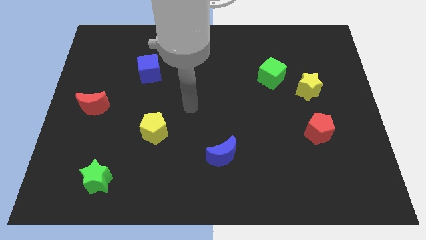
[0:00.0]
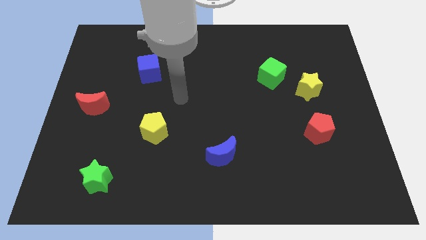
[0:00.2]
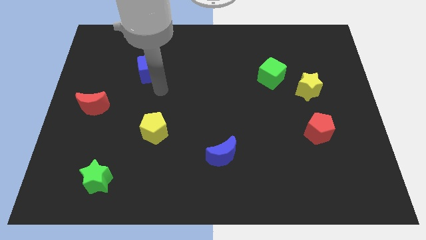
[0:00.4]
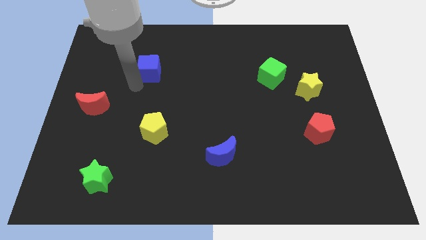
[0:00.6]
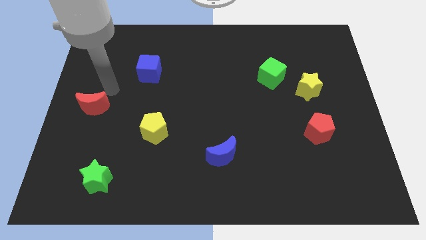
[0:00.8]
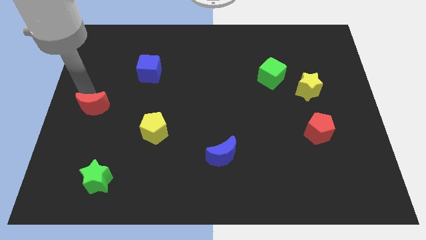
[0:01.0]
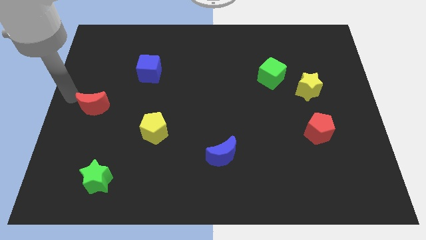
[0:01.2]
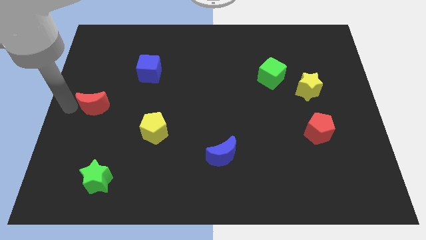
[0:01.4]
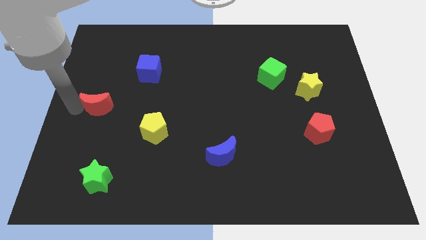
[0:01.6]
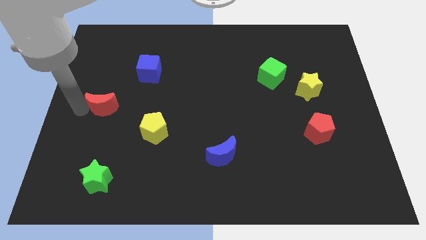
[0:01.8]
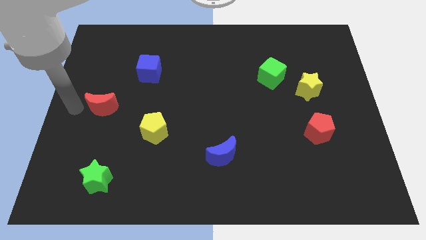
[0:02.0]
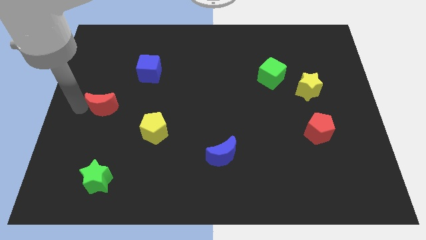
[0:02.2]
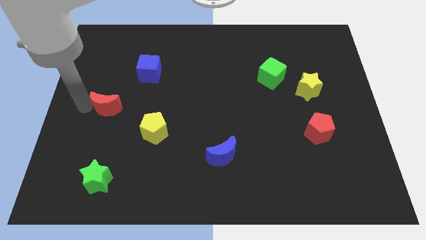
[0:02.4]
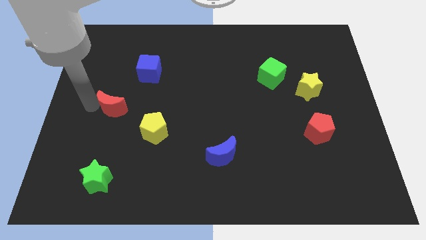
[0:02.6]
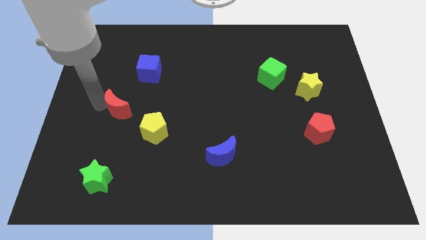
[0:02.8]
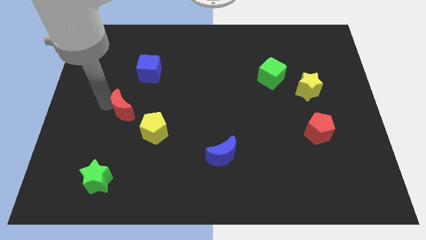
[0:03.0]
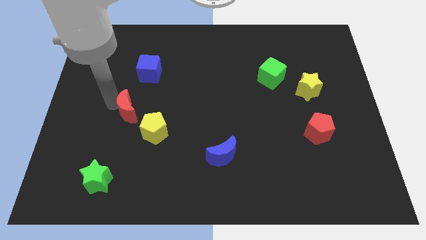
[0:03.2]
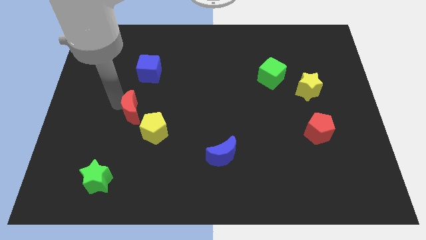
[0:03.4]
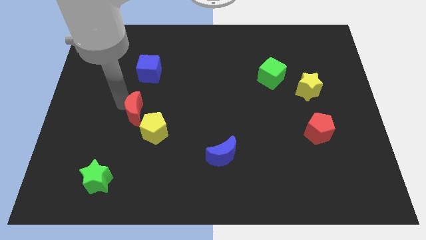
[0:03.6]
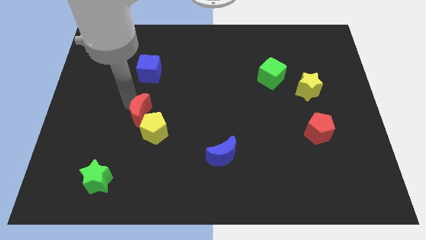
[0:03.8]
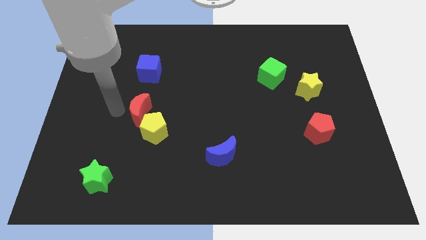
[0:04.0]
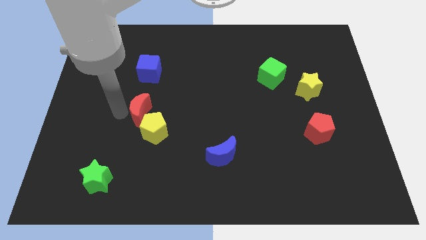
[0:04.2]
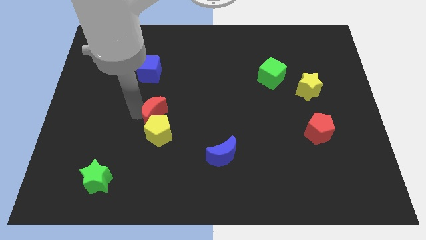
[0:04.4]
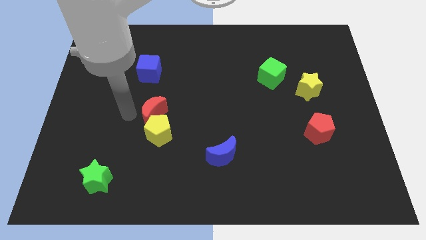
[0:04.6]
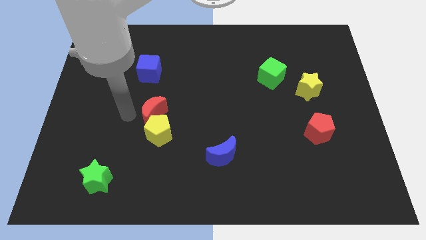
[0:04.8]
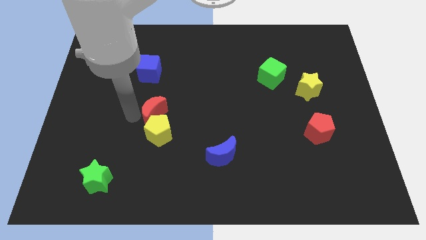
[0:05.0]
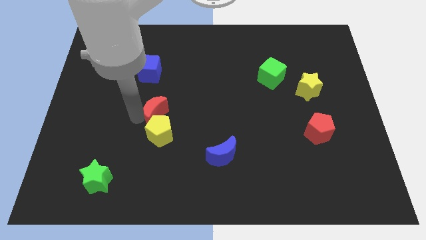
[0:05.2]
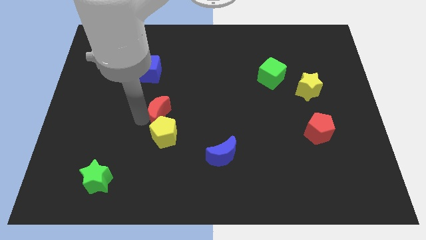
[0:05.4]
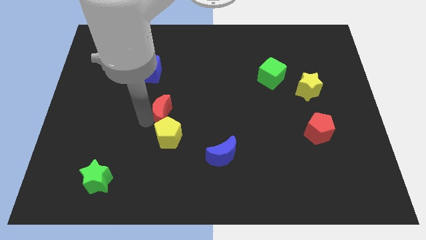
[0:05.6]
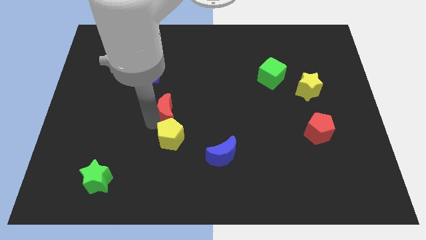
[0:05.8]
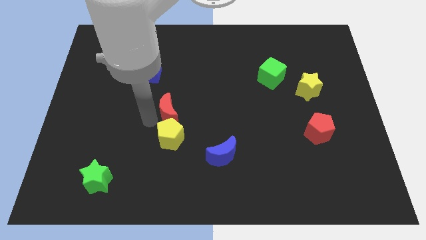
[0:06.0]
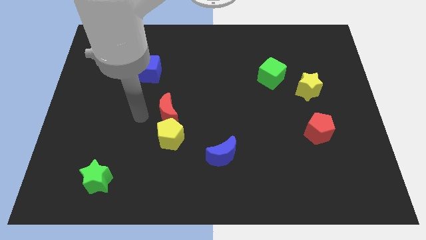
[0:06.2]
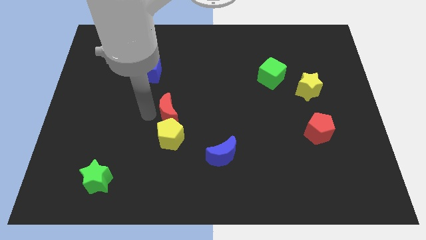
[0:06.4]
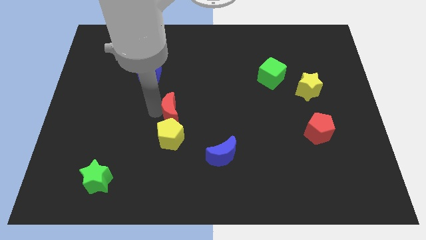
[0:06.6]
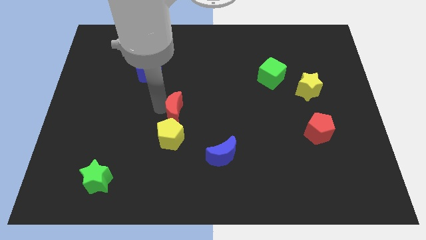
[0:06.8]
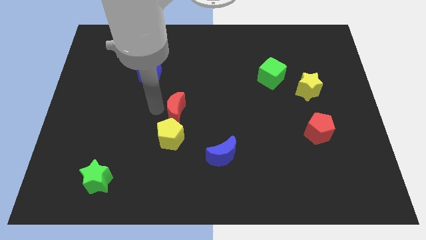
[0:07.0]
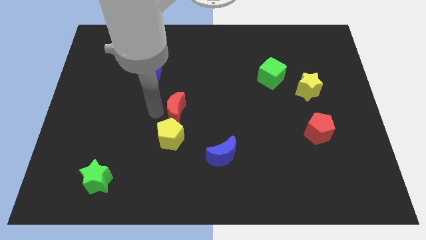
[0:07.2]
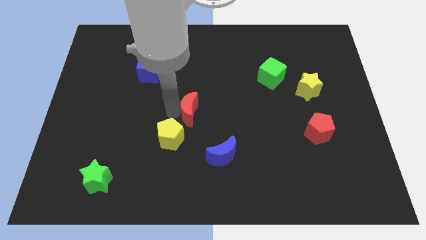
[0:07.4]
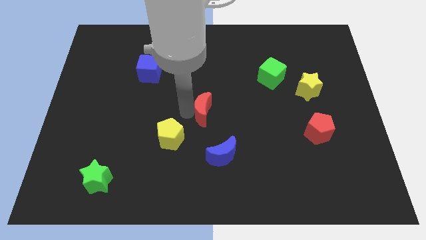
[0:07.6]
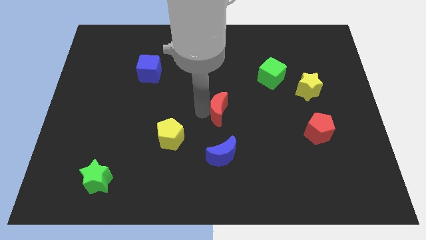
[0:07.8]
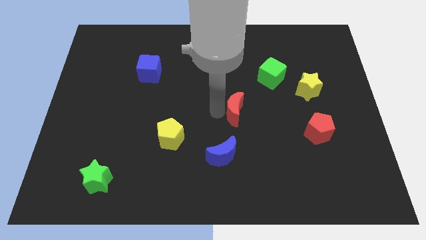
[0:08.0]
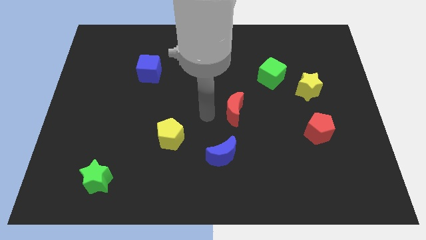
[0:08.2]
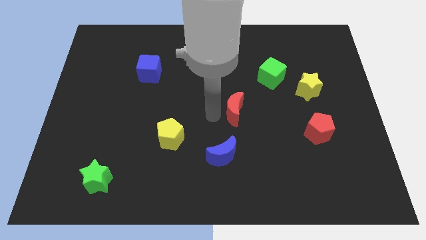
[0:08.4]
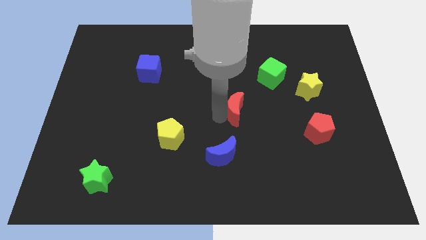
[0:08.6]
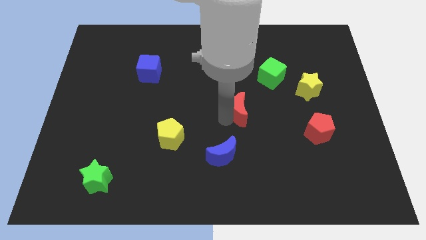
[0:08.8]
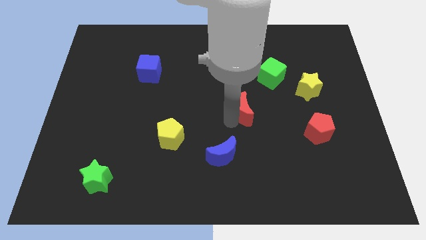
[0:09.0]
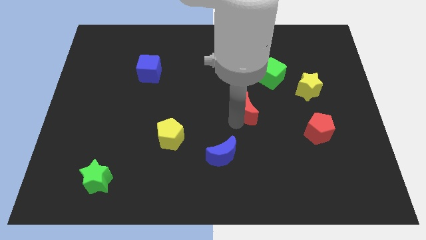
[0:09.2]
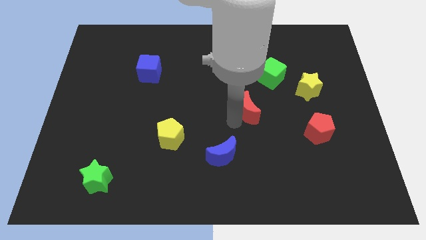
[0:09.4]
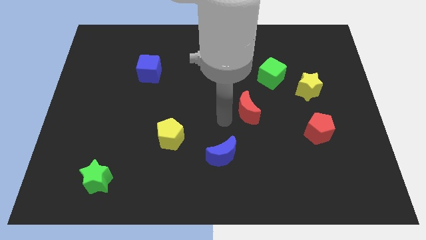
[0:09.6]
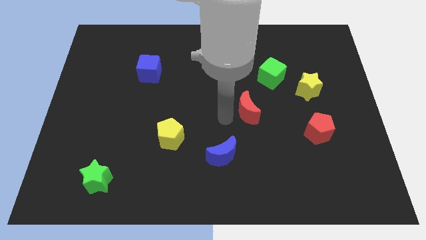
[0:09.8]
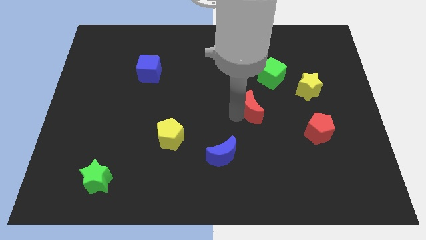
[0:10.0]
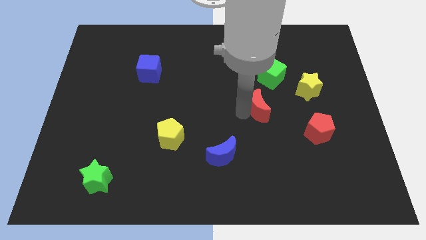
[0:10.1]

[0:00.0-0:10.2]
move the red moon to the bottom side of the green cube

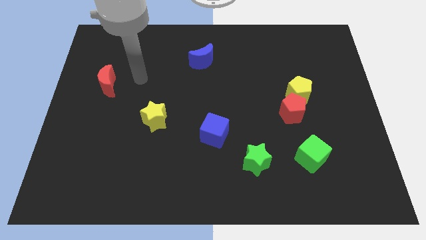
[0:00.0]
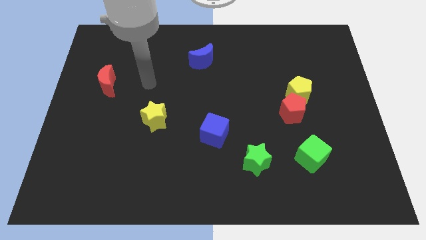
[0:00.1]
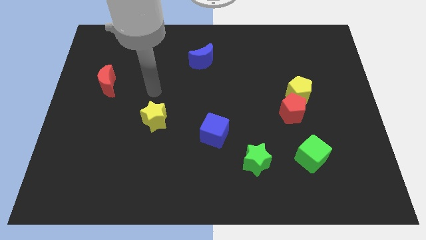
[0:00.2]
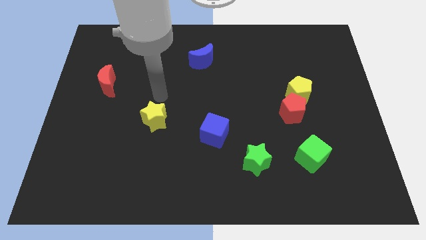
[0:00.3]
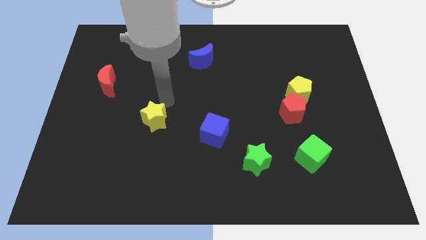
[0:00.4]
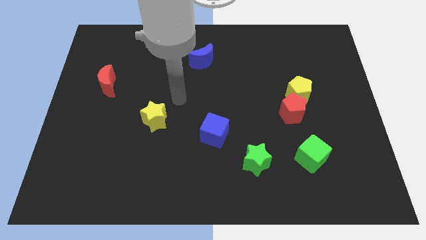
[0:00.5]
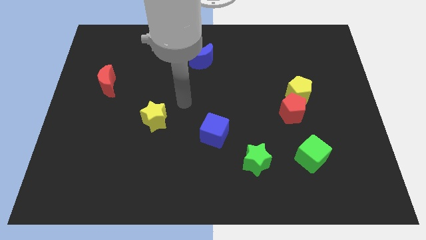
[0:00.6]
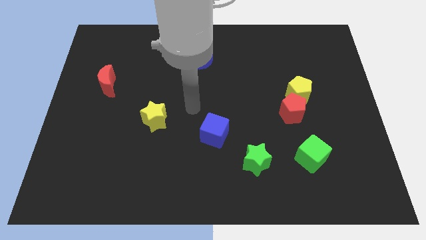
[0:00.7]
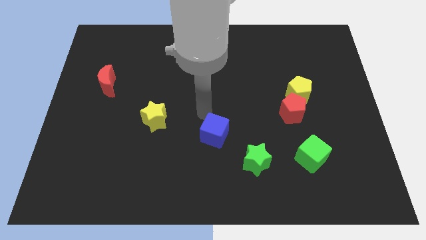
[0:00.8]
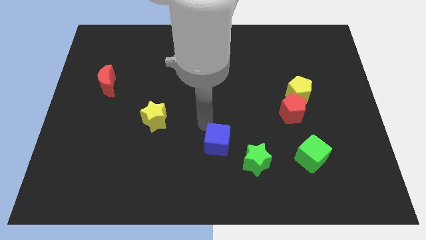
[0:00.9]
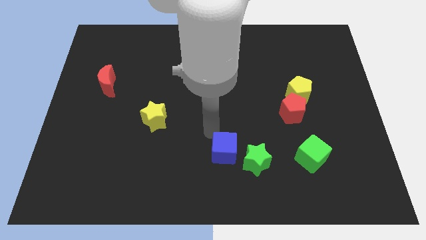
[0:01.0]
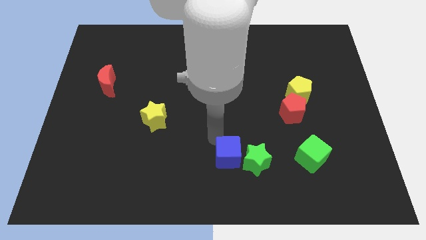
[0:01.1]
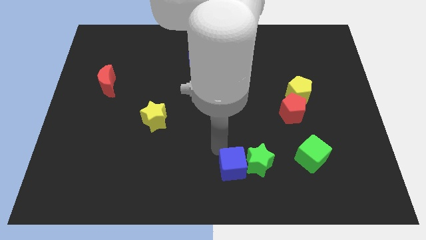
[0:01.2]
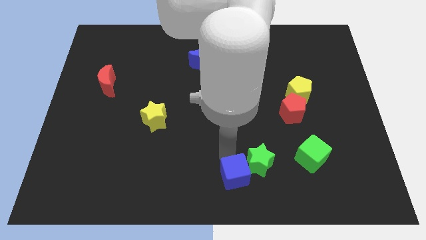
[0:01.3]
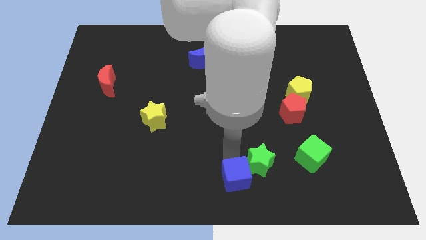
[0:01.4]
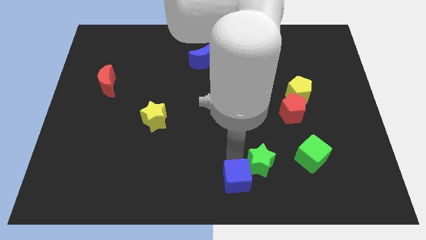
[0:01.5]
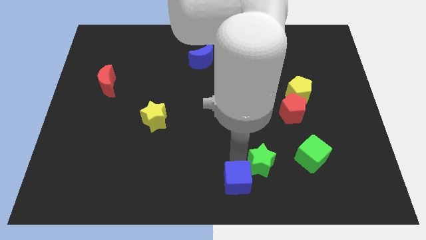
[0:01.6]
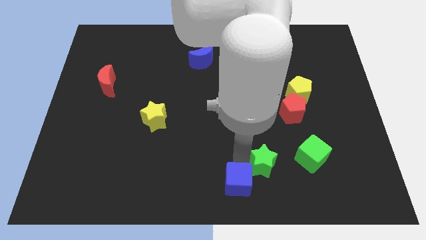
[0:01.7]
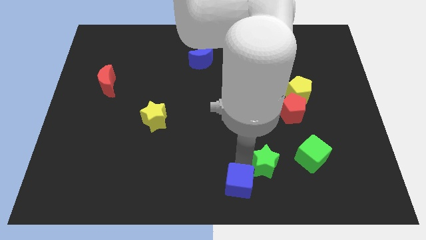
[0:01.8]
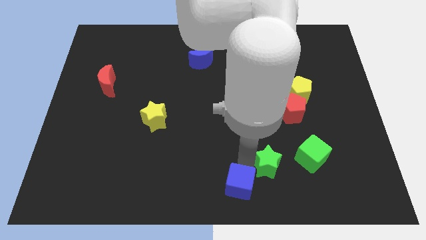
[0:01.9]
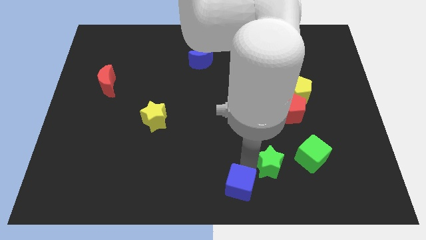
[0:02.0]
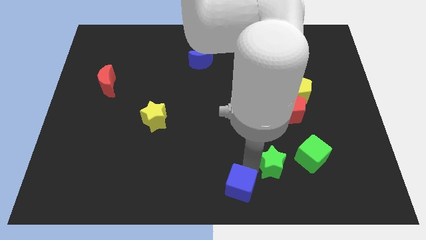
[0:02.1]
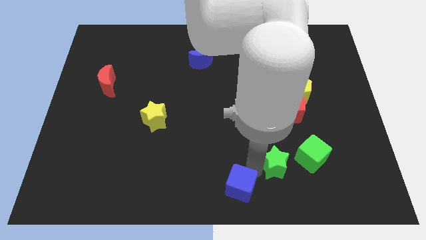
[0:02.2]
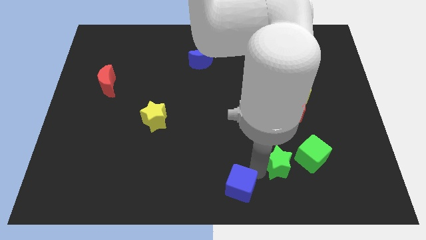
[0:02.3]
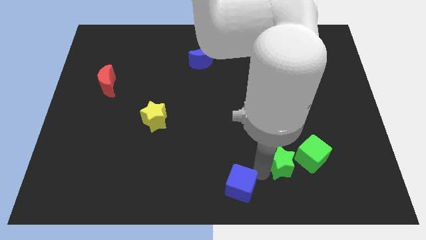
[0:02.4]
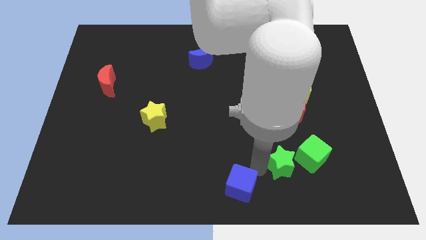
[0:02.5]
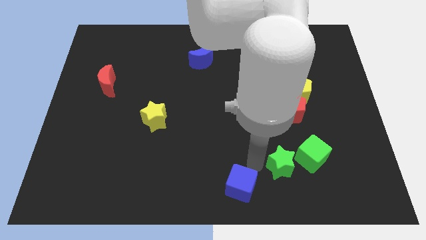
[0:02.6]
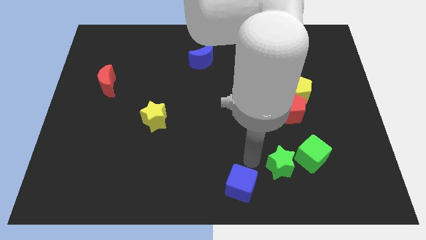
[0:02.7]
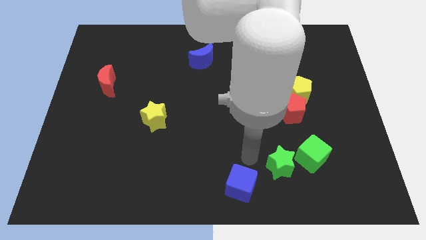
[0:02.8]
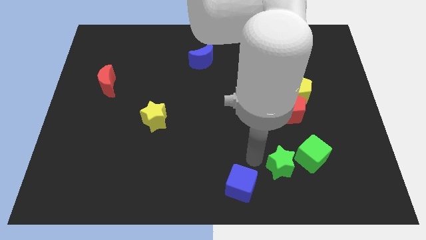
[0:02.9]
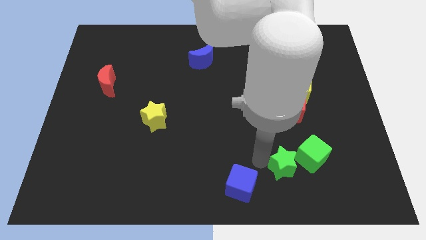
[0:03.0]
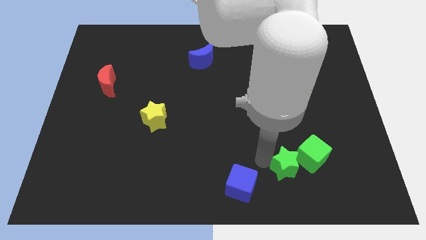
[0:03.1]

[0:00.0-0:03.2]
slide the green star to the bottom side of the red pentagon
